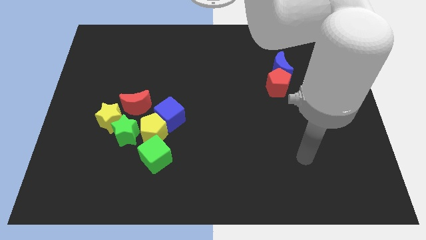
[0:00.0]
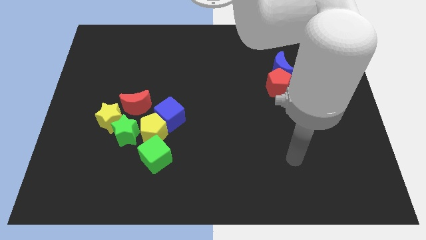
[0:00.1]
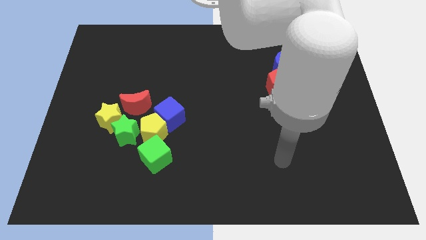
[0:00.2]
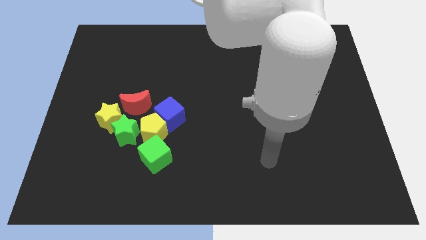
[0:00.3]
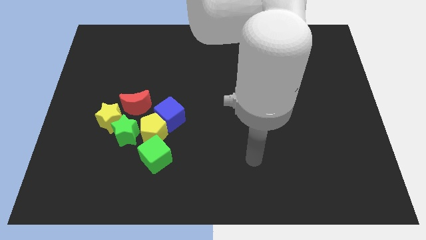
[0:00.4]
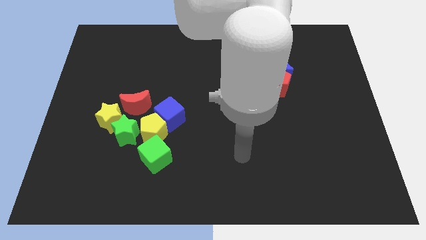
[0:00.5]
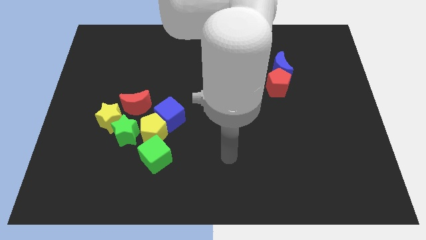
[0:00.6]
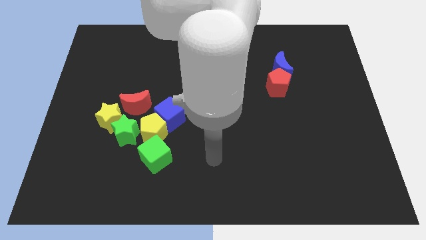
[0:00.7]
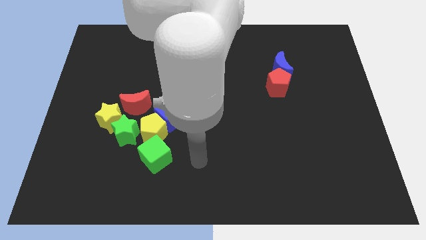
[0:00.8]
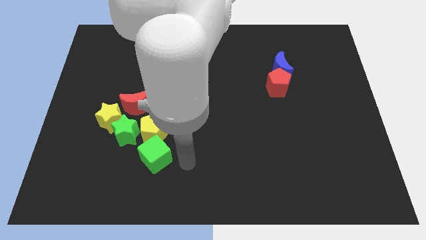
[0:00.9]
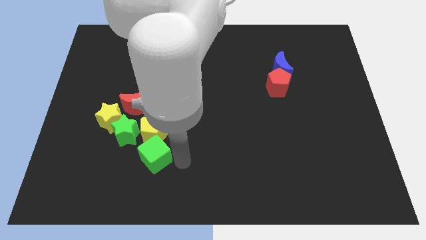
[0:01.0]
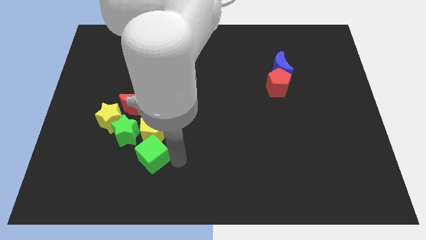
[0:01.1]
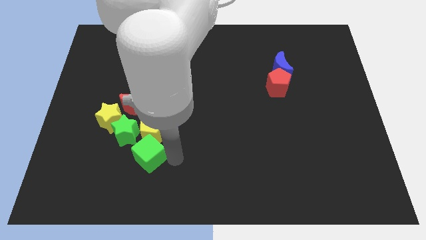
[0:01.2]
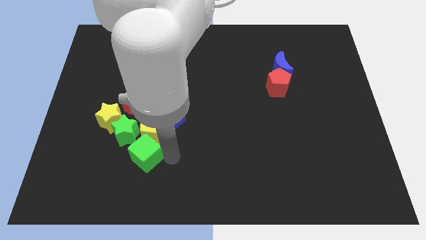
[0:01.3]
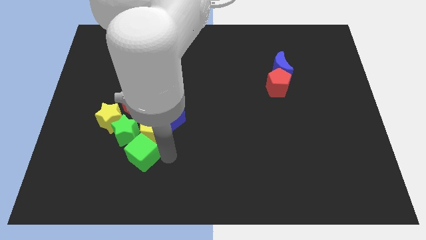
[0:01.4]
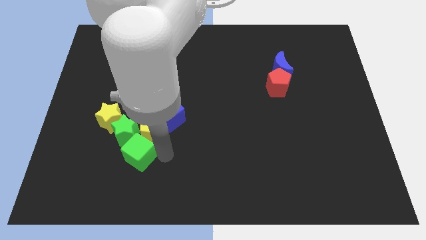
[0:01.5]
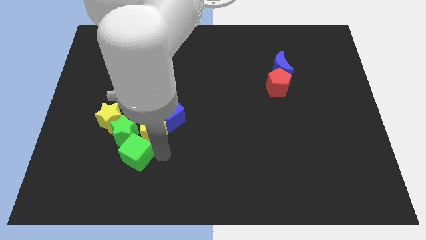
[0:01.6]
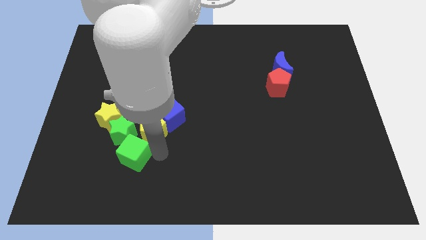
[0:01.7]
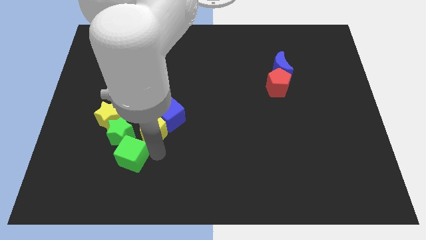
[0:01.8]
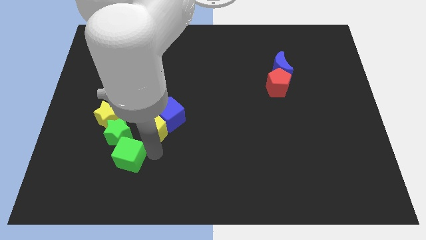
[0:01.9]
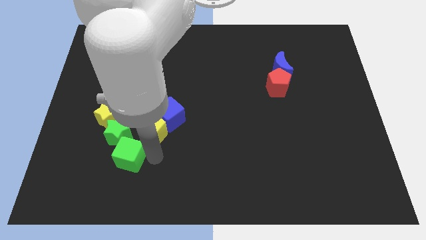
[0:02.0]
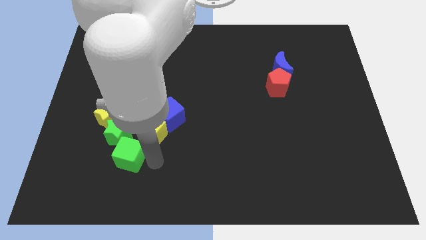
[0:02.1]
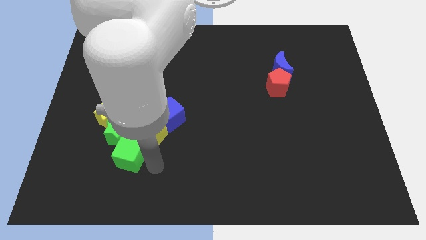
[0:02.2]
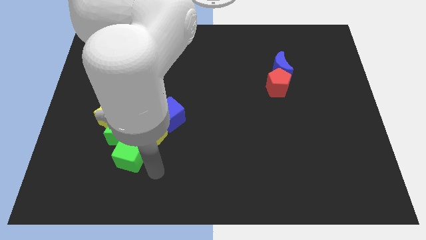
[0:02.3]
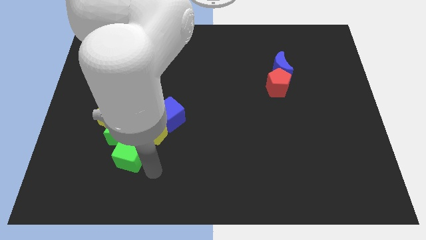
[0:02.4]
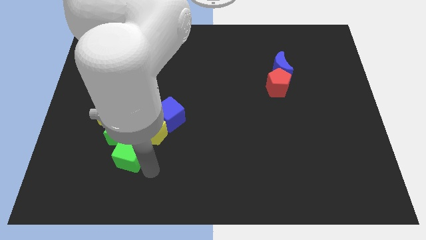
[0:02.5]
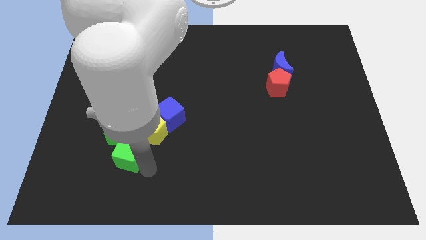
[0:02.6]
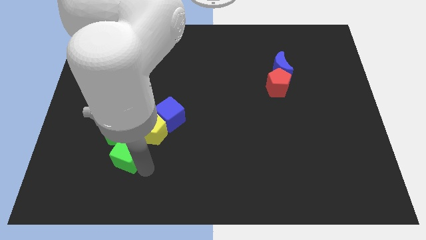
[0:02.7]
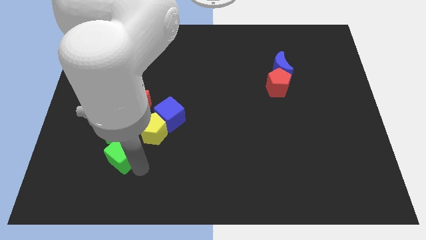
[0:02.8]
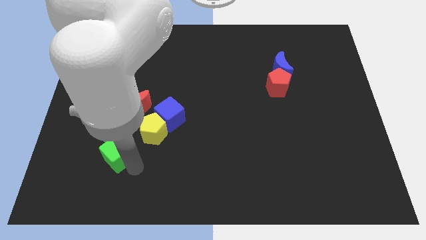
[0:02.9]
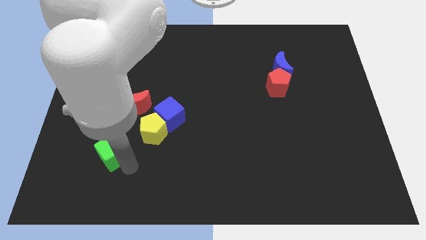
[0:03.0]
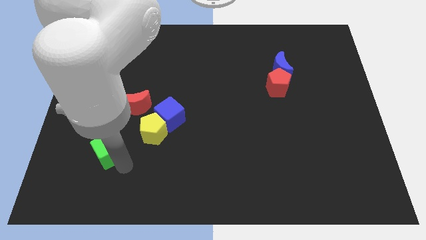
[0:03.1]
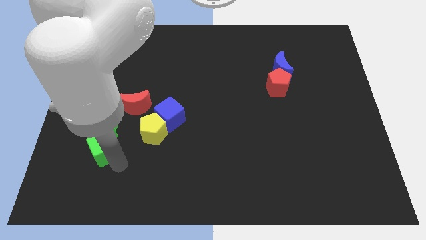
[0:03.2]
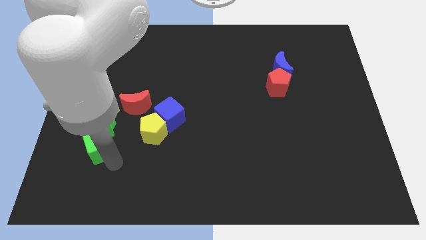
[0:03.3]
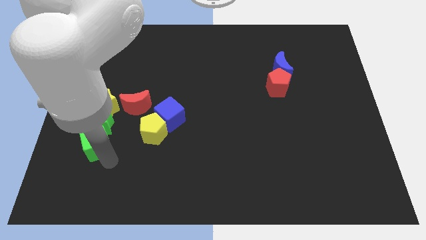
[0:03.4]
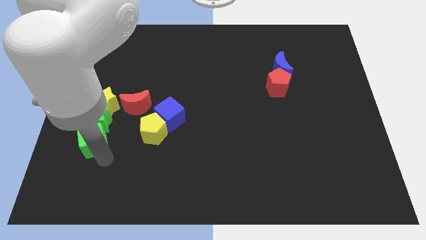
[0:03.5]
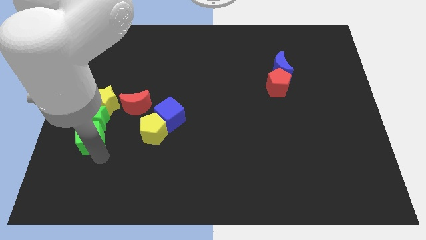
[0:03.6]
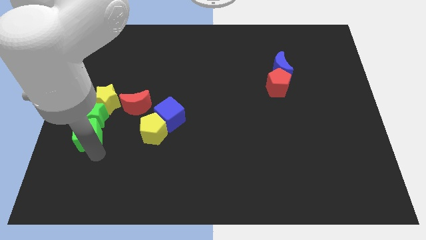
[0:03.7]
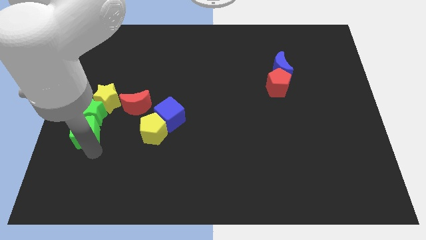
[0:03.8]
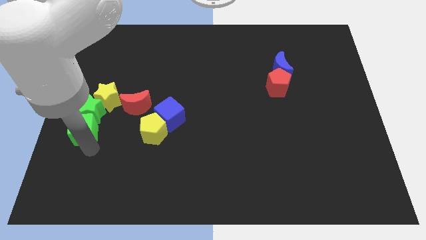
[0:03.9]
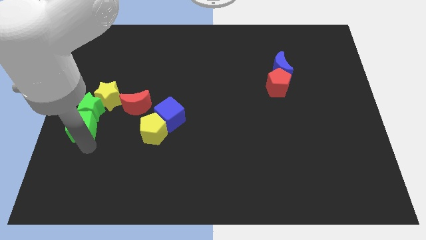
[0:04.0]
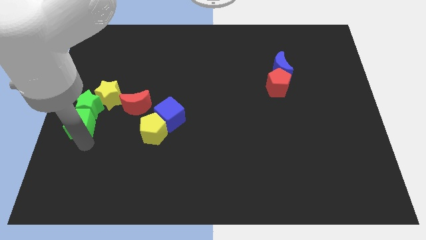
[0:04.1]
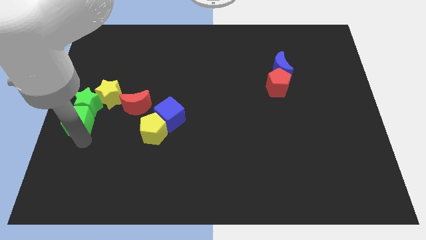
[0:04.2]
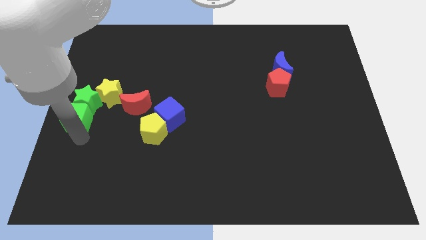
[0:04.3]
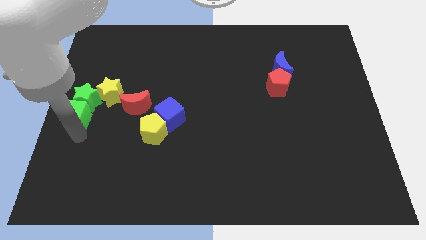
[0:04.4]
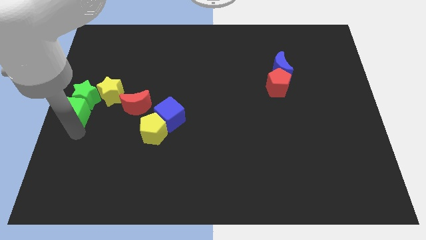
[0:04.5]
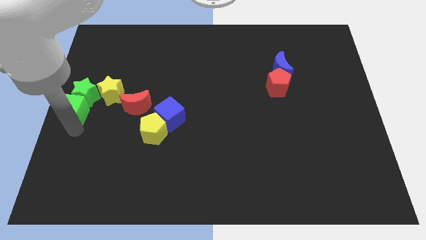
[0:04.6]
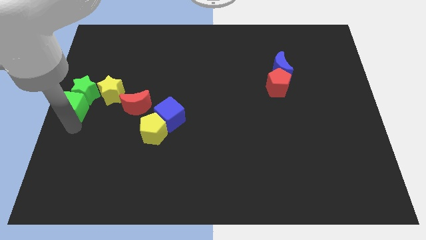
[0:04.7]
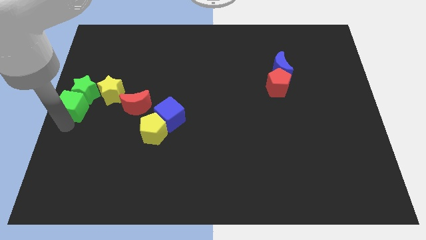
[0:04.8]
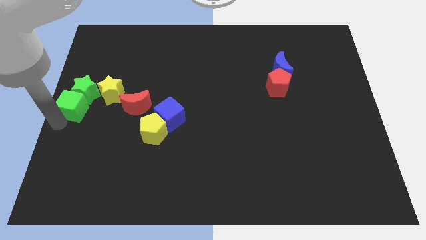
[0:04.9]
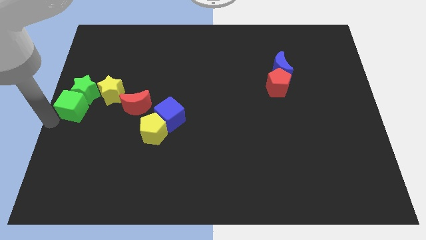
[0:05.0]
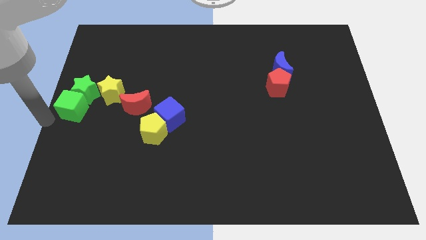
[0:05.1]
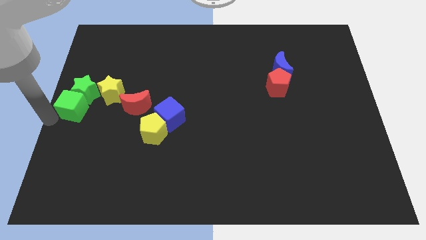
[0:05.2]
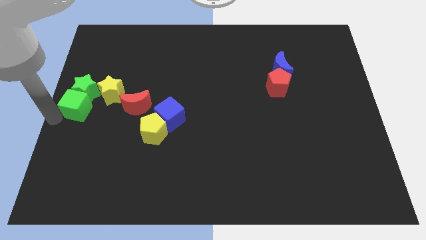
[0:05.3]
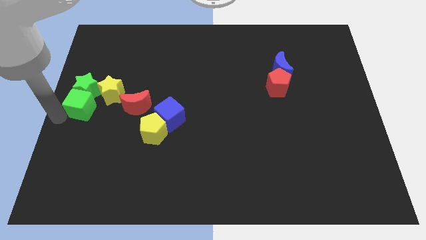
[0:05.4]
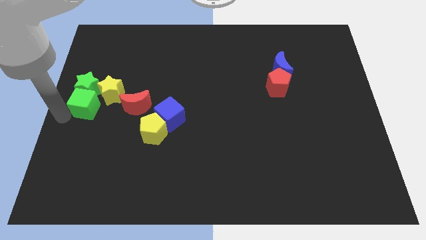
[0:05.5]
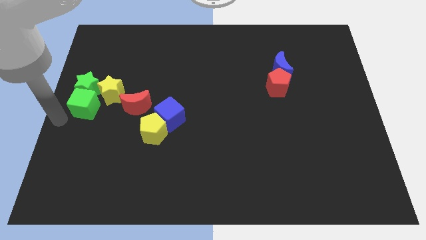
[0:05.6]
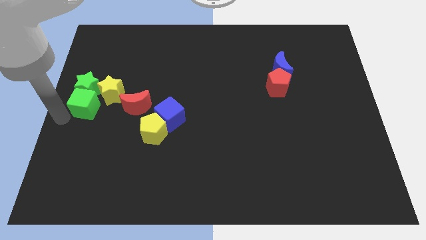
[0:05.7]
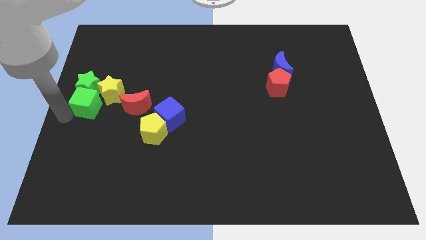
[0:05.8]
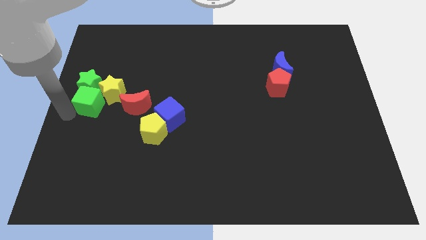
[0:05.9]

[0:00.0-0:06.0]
slide the green cube close to the yellow star

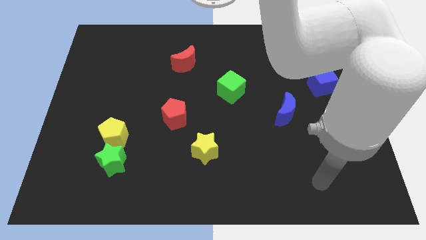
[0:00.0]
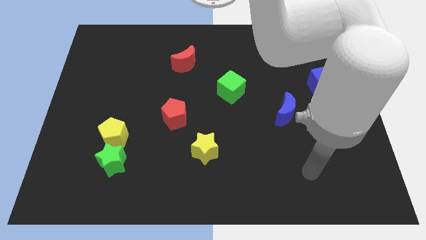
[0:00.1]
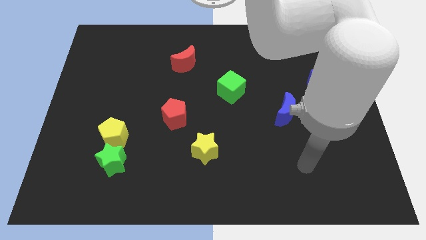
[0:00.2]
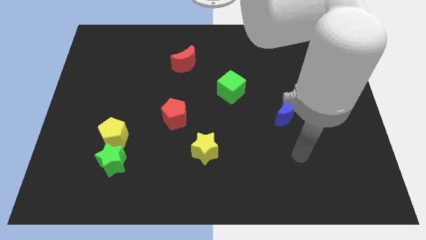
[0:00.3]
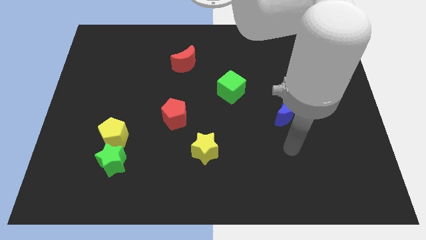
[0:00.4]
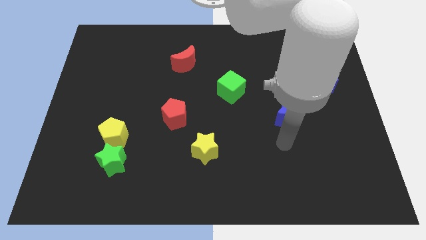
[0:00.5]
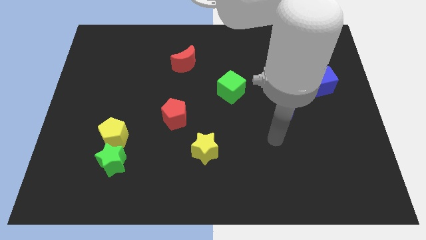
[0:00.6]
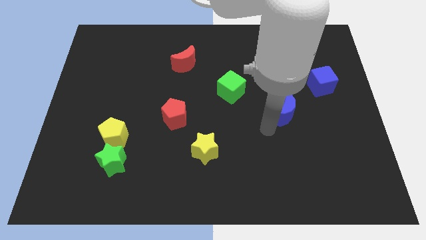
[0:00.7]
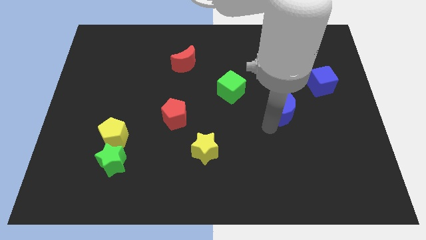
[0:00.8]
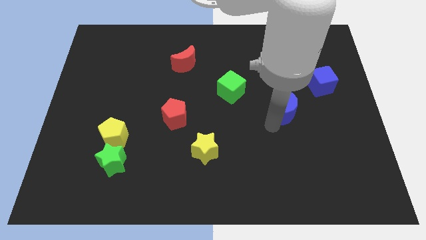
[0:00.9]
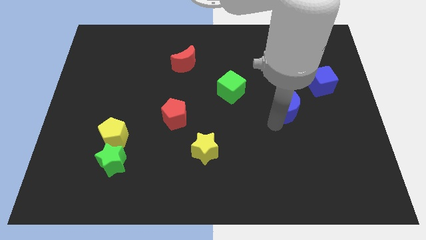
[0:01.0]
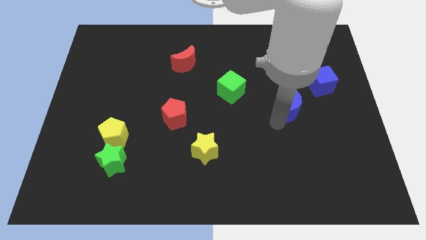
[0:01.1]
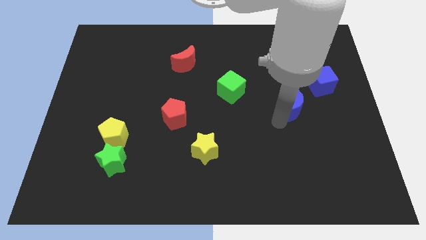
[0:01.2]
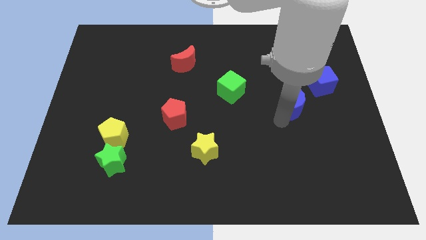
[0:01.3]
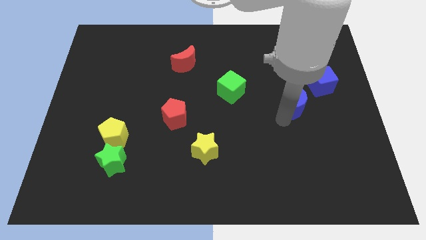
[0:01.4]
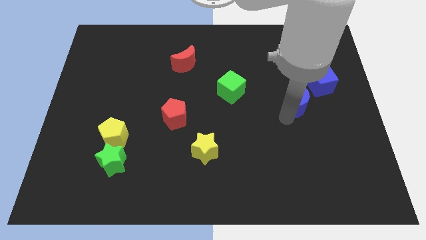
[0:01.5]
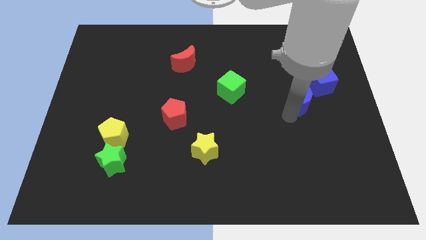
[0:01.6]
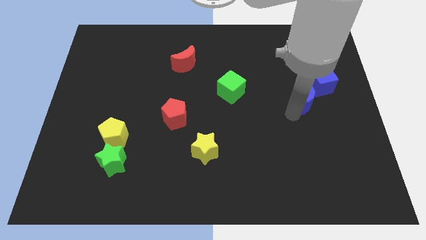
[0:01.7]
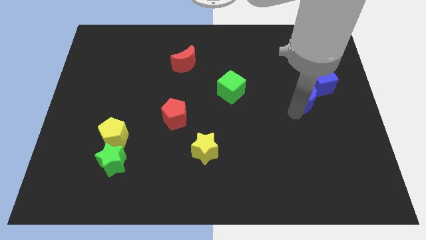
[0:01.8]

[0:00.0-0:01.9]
push the blue moon next to the blue cube
